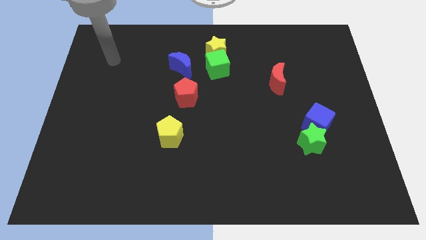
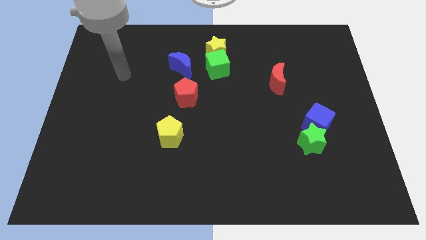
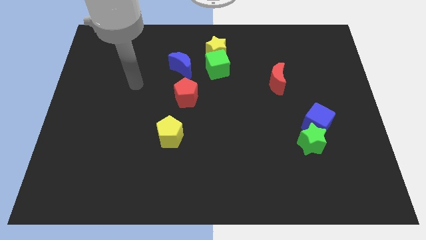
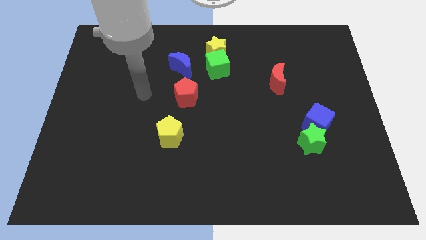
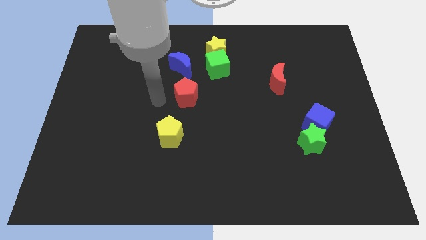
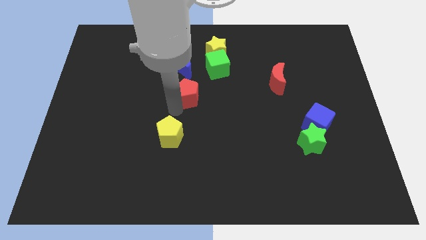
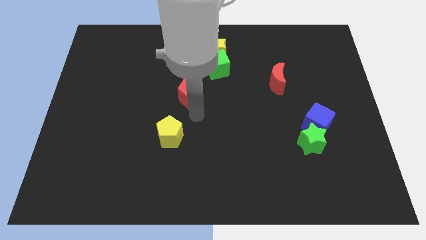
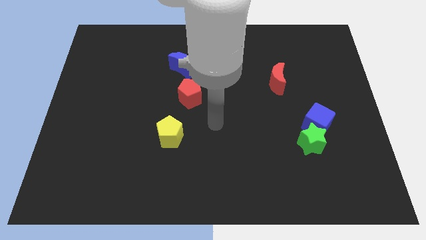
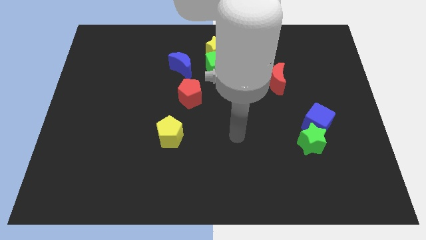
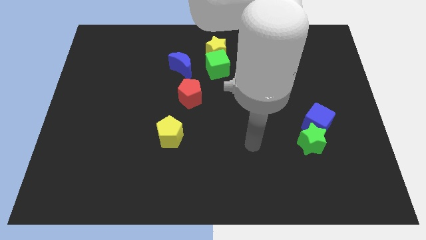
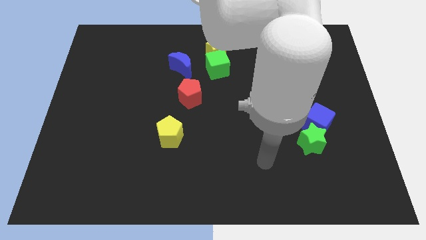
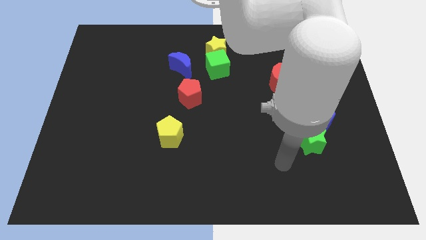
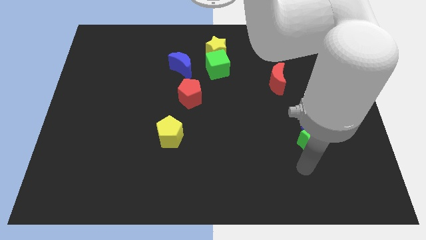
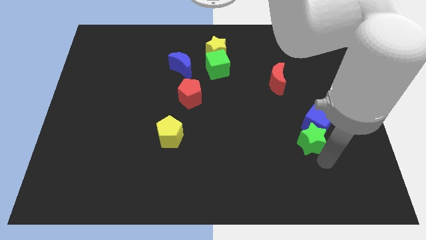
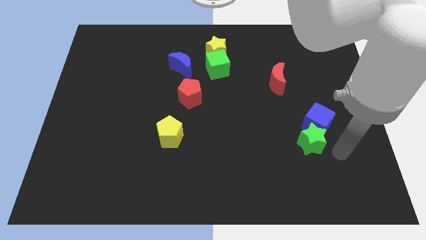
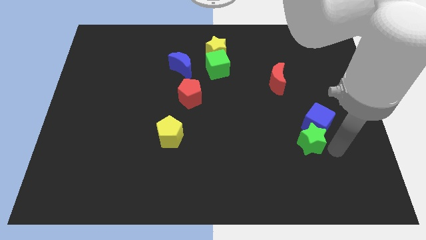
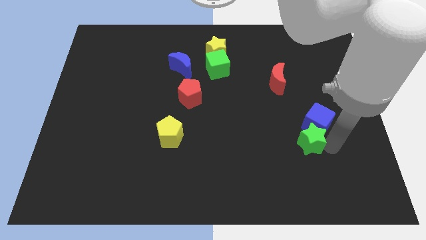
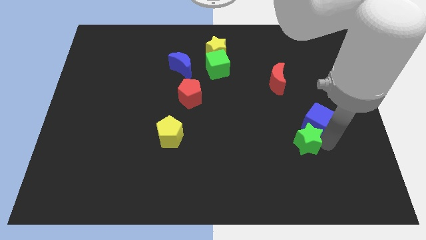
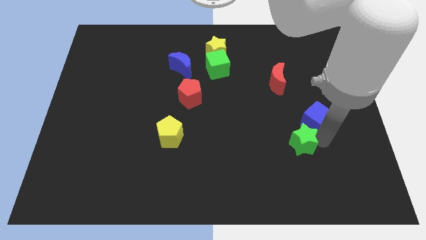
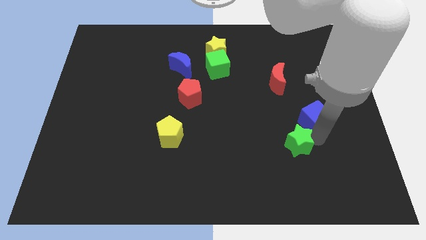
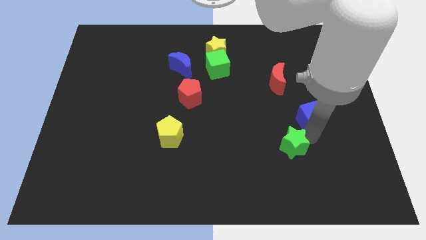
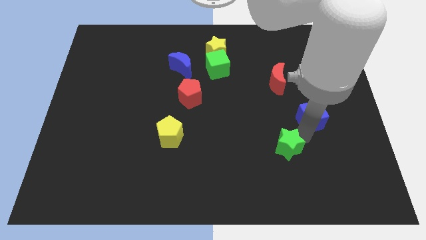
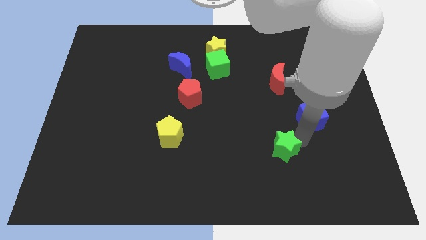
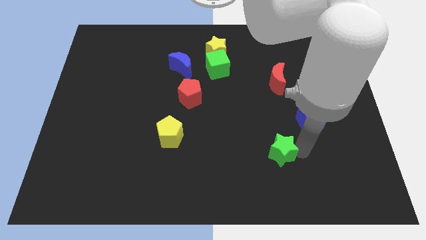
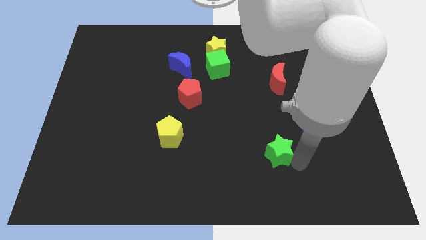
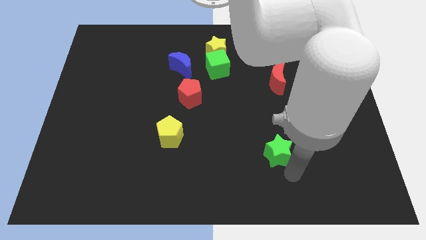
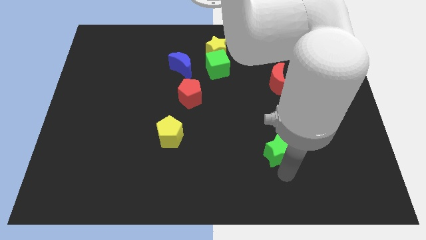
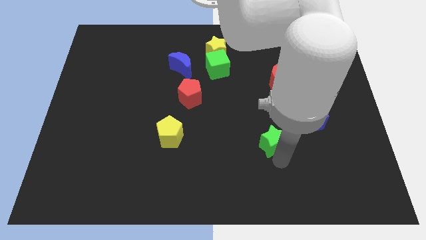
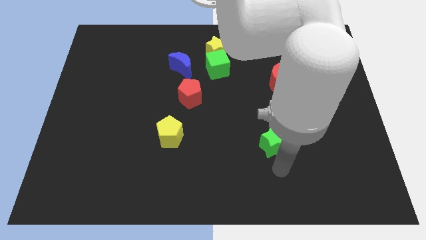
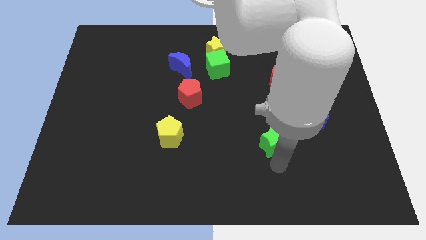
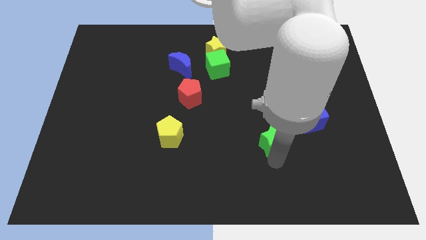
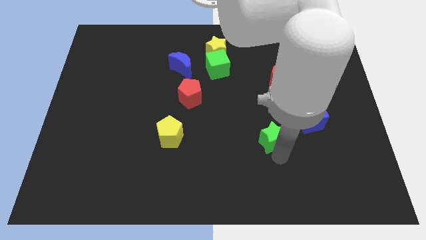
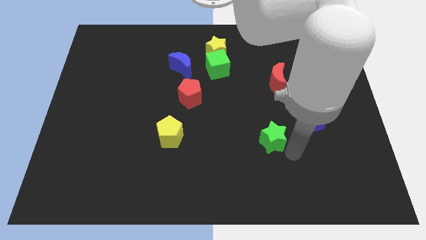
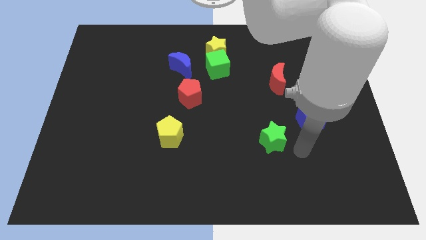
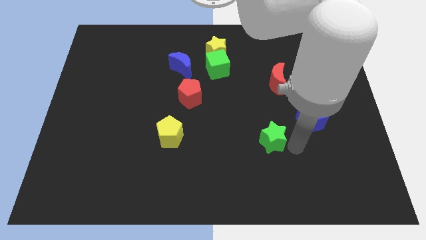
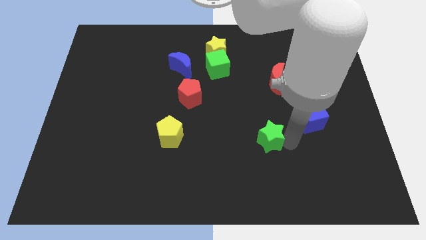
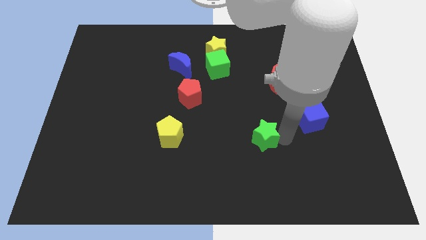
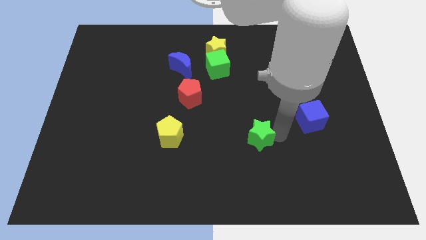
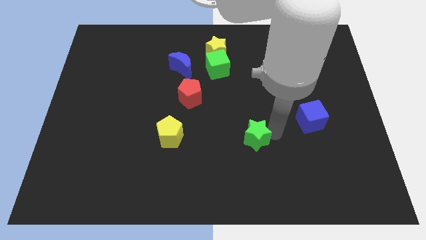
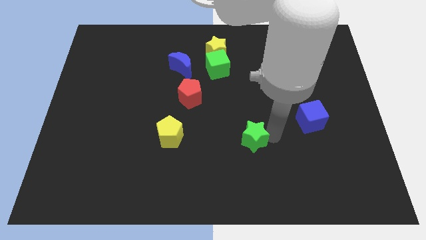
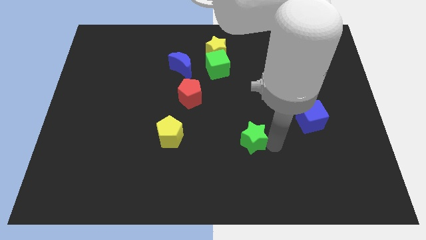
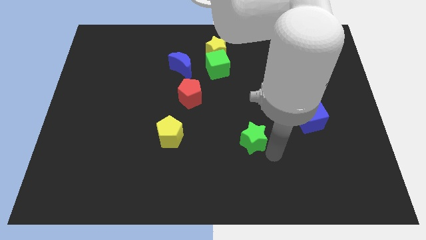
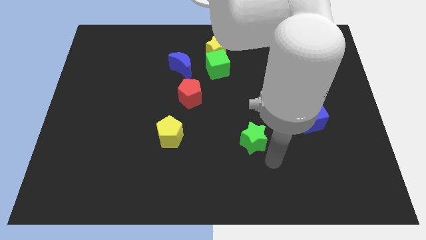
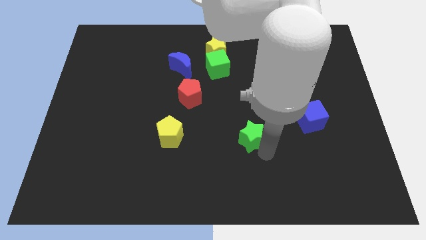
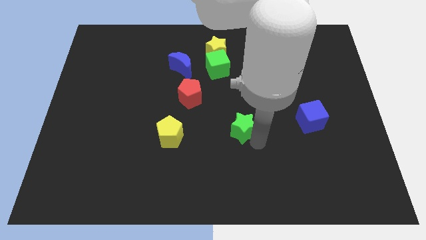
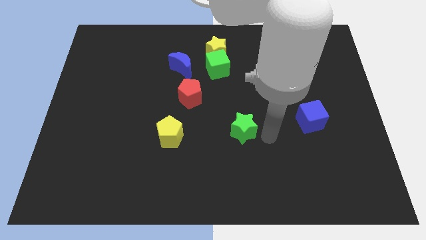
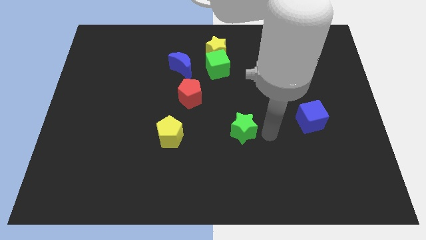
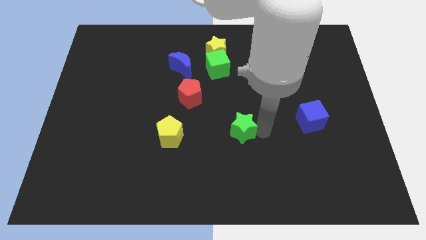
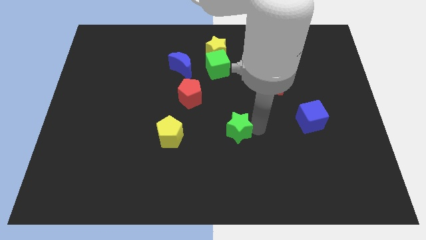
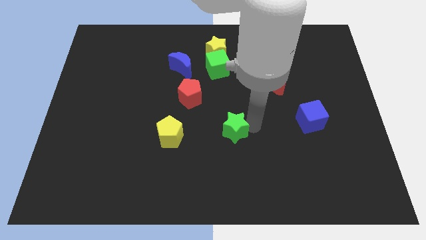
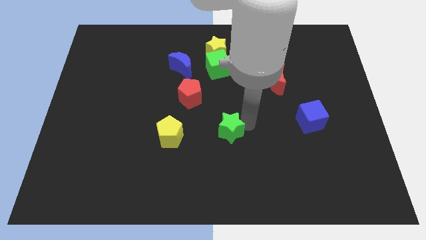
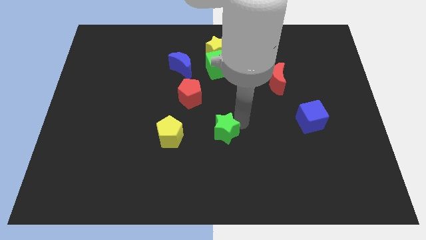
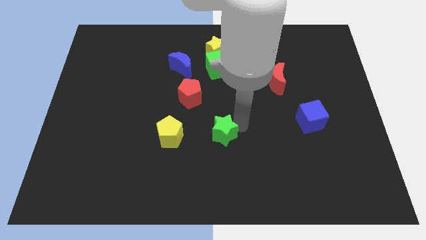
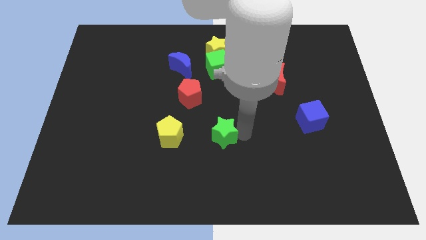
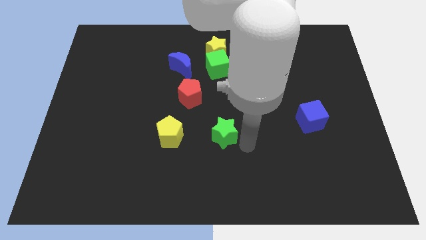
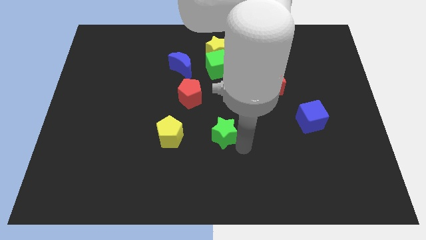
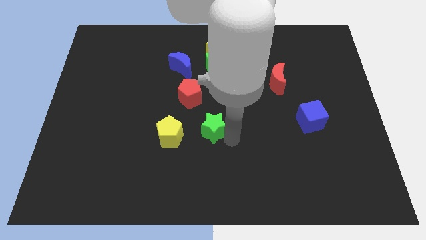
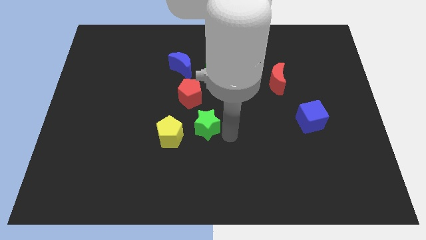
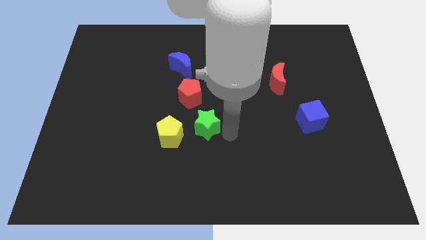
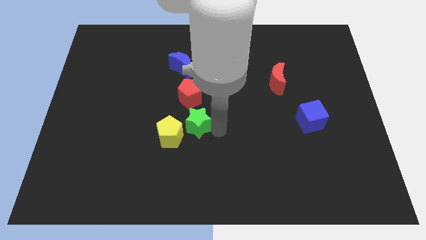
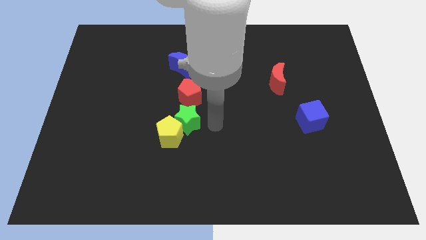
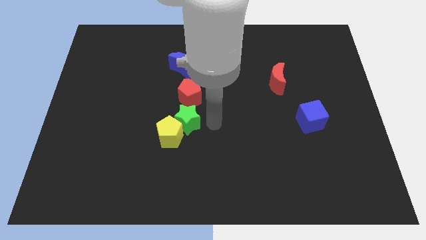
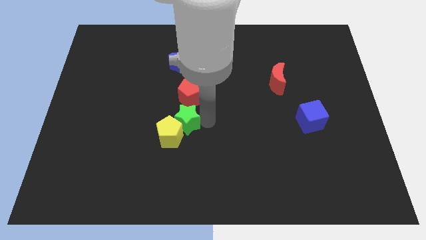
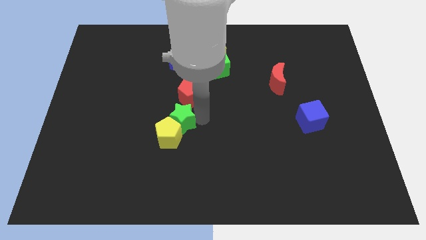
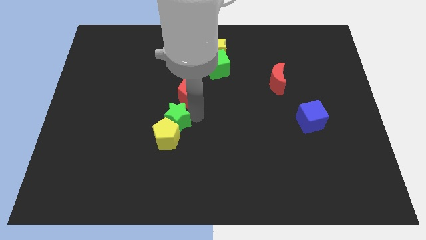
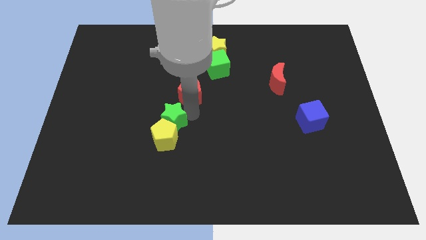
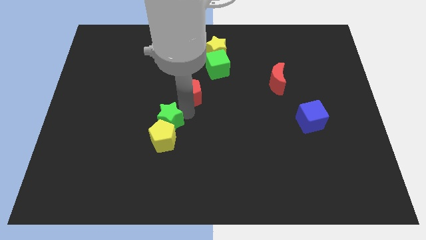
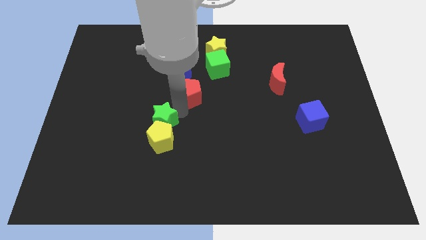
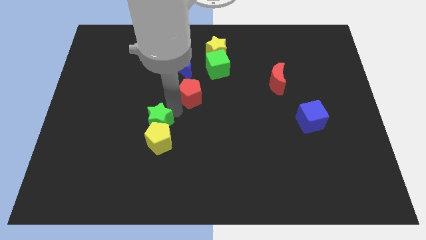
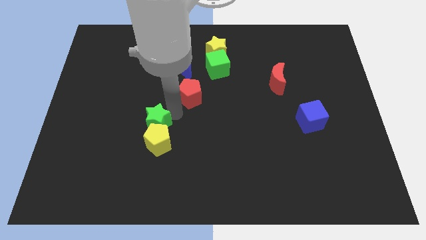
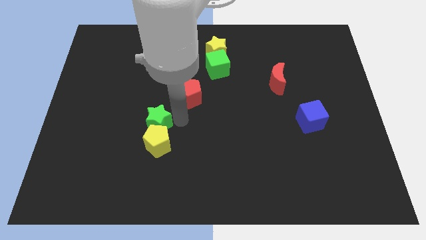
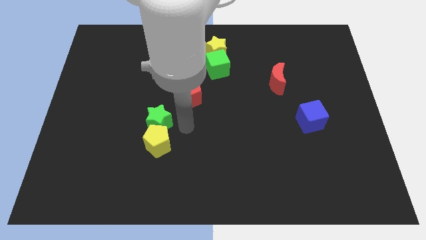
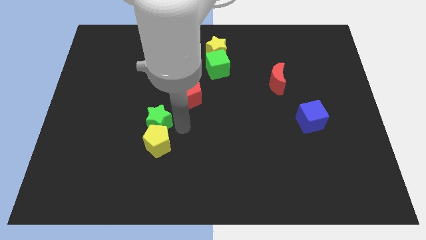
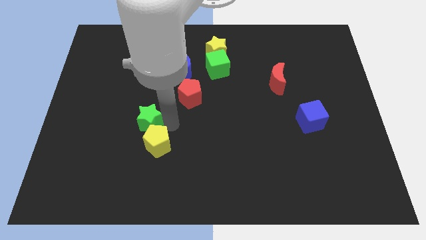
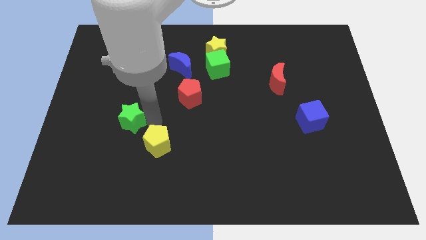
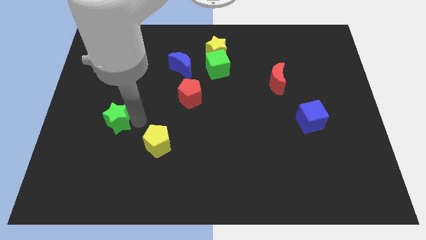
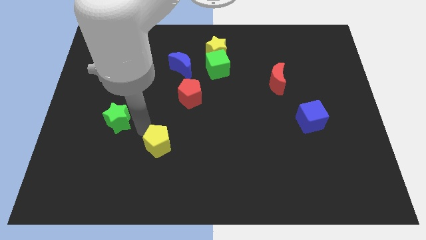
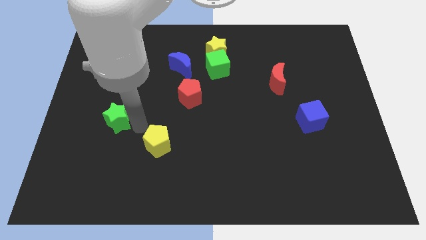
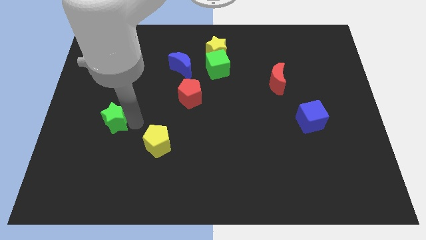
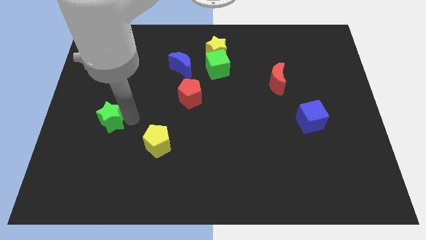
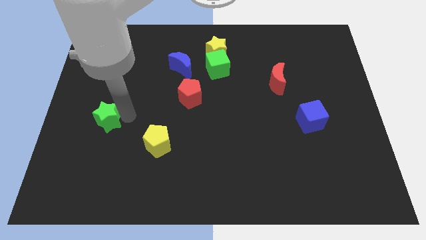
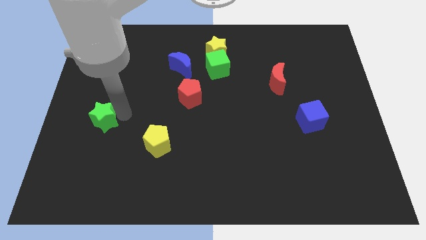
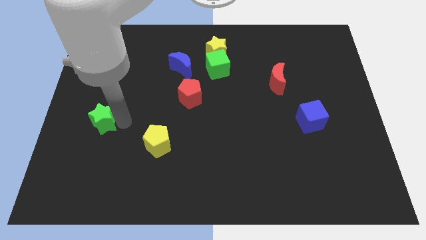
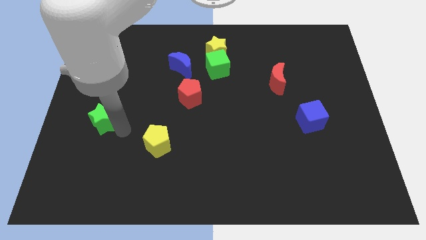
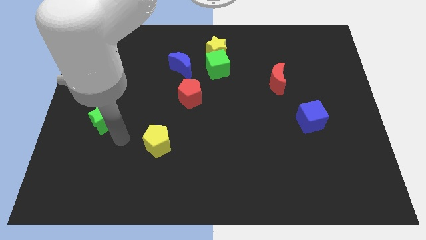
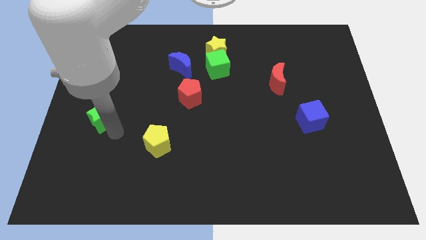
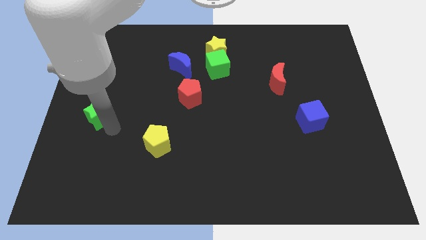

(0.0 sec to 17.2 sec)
move the green star to the left side
